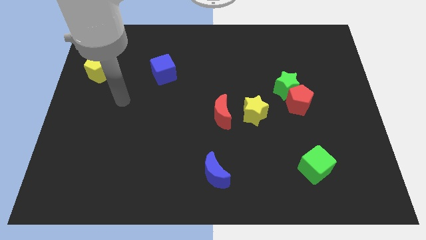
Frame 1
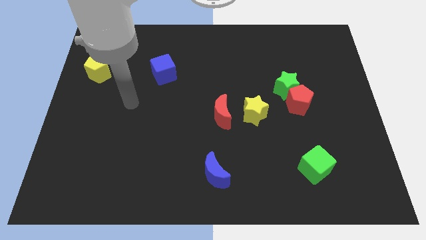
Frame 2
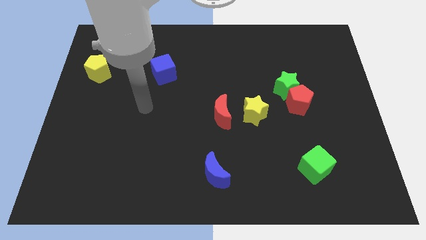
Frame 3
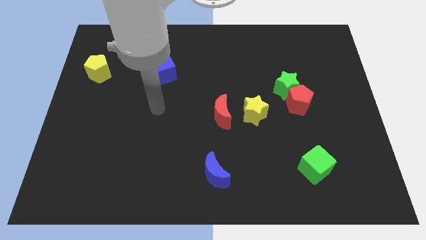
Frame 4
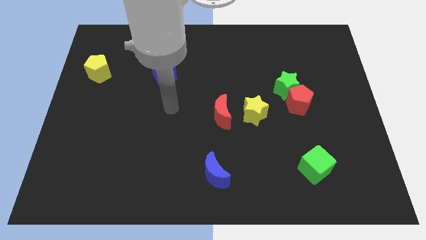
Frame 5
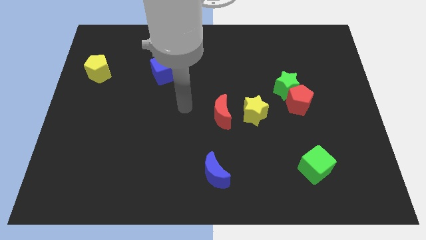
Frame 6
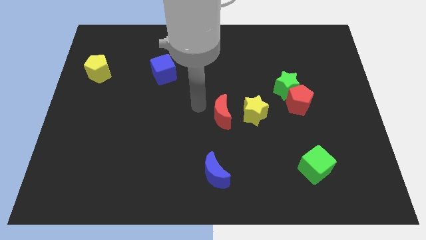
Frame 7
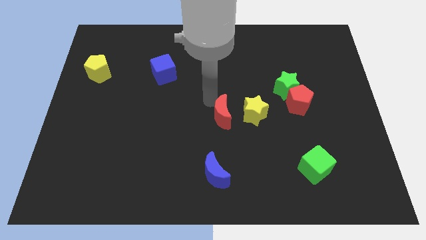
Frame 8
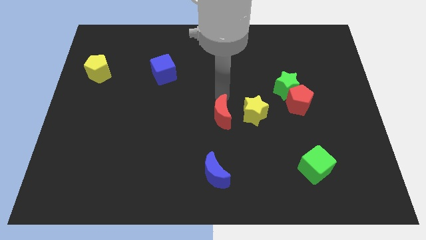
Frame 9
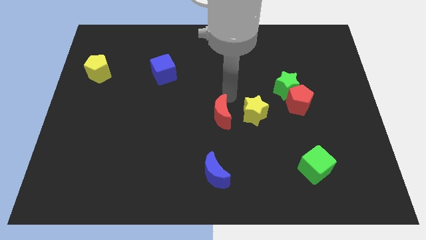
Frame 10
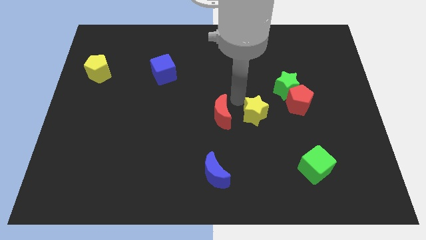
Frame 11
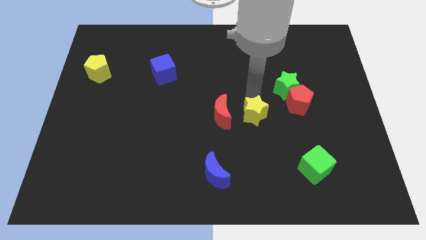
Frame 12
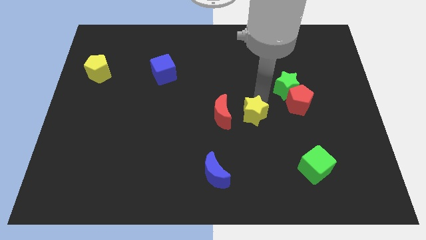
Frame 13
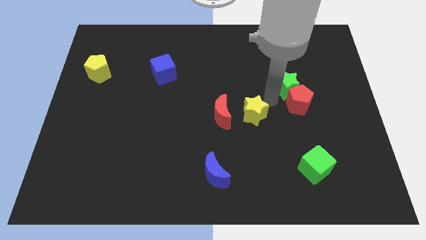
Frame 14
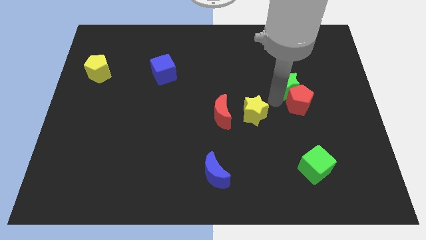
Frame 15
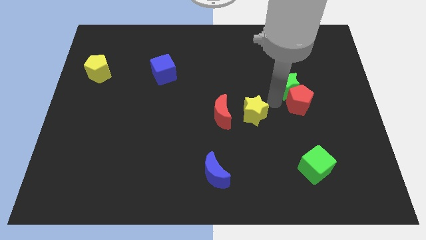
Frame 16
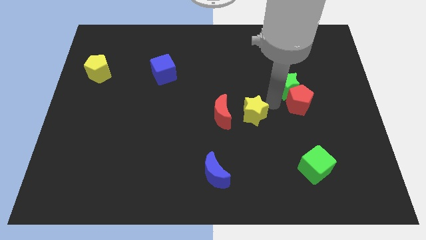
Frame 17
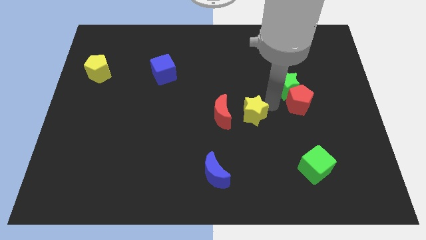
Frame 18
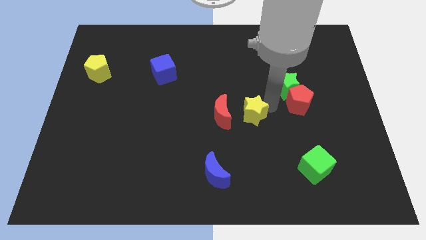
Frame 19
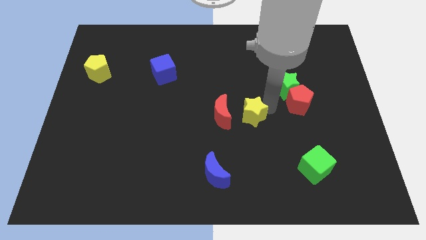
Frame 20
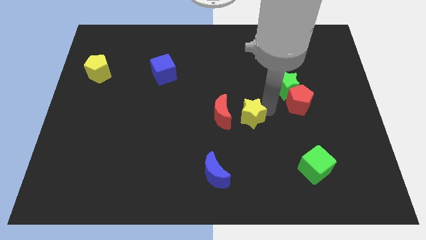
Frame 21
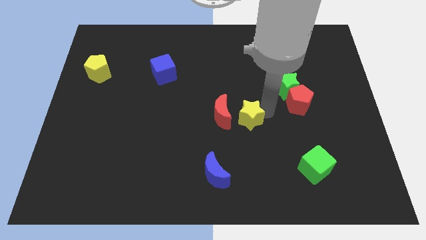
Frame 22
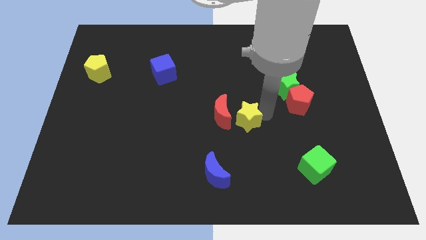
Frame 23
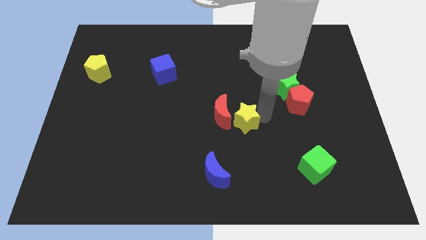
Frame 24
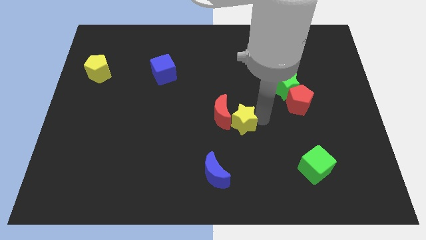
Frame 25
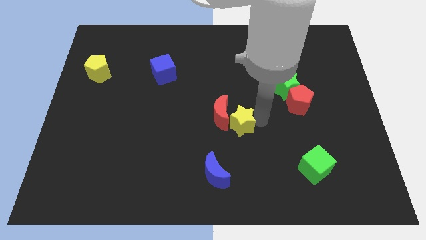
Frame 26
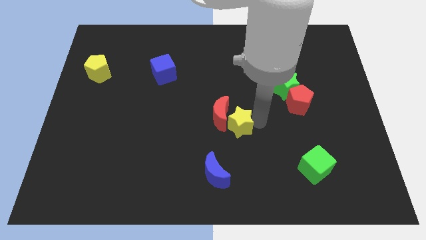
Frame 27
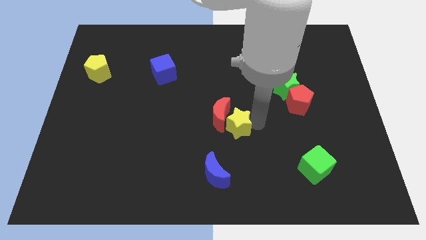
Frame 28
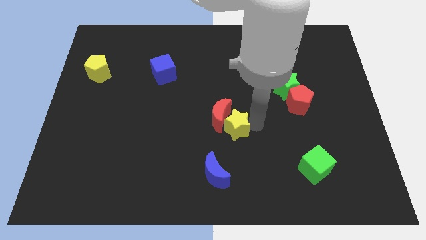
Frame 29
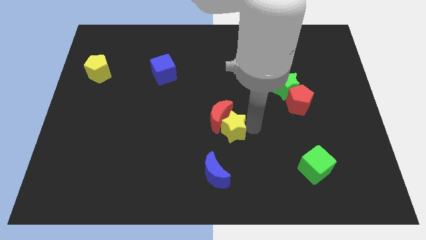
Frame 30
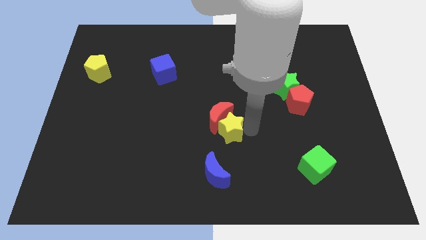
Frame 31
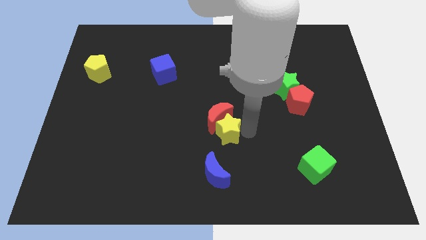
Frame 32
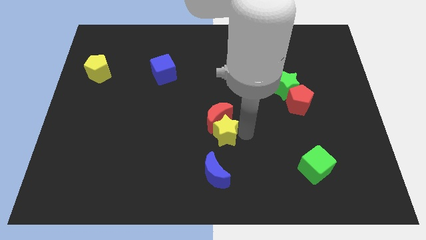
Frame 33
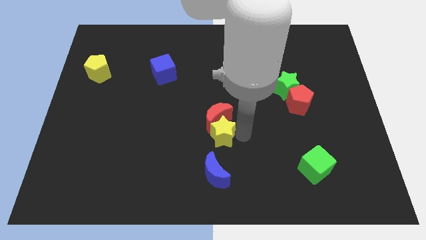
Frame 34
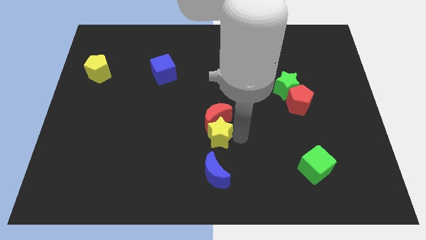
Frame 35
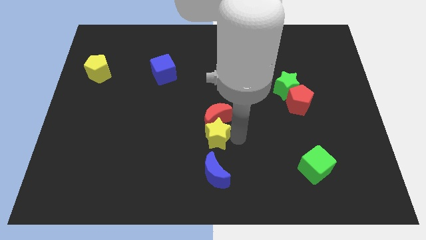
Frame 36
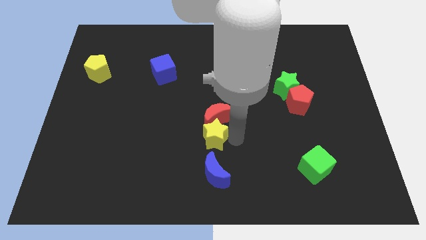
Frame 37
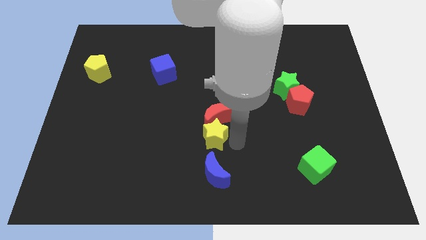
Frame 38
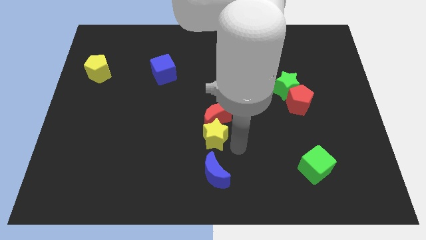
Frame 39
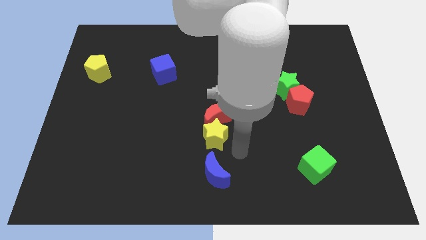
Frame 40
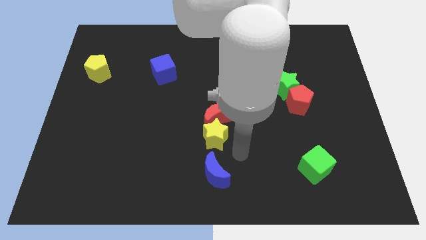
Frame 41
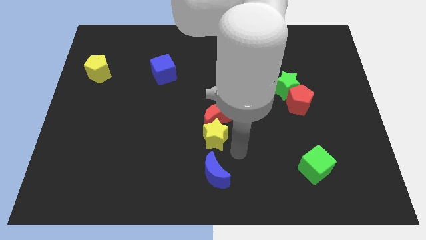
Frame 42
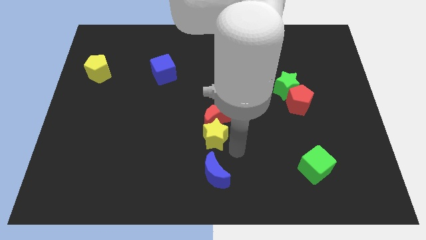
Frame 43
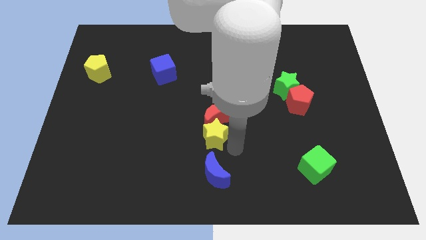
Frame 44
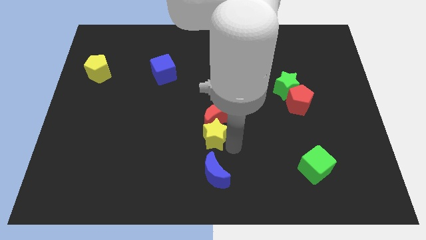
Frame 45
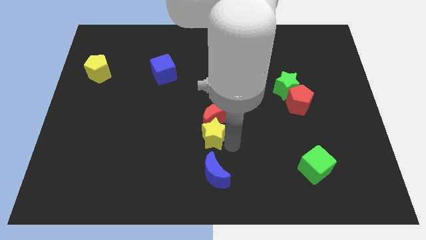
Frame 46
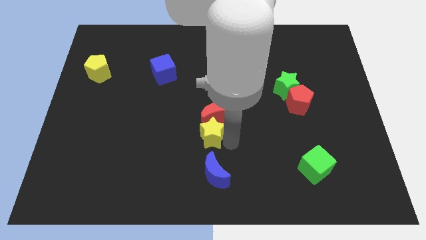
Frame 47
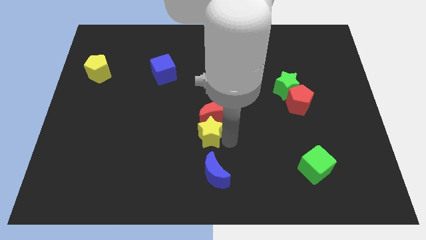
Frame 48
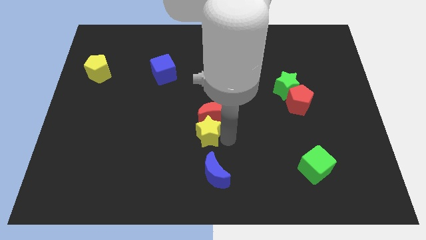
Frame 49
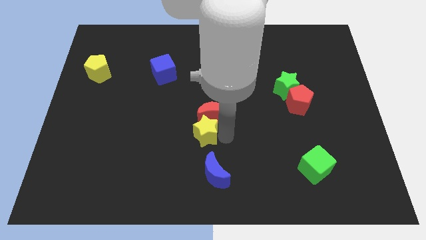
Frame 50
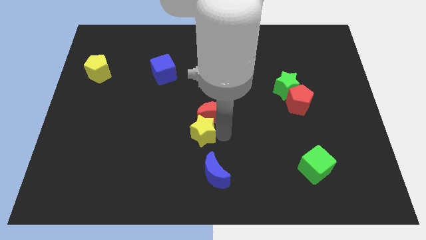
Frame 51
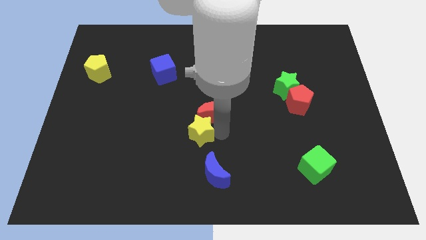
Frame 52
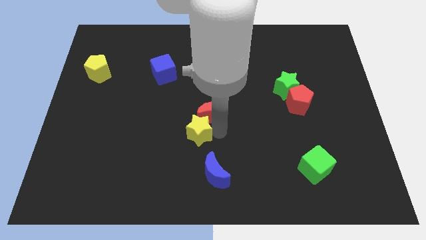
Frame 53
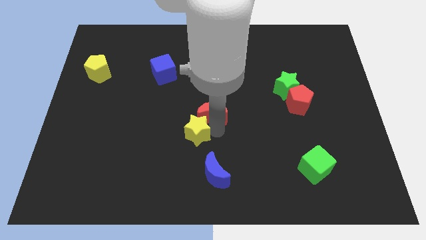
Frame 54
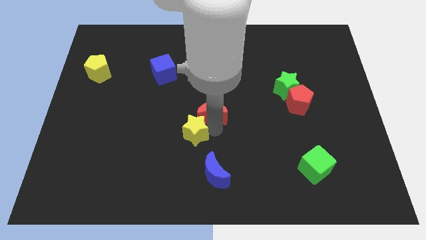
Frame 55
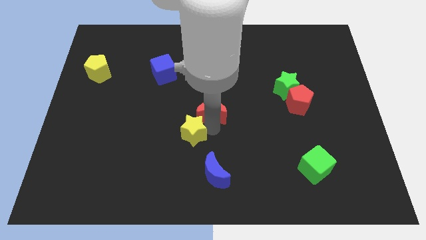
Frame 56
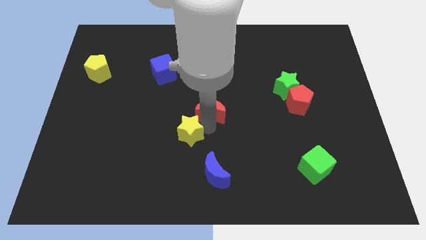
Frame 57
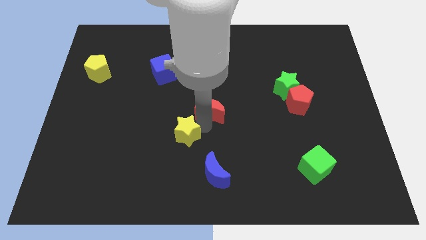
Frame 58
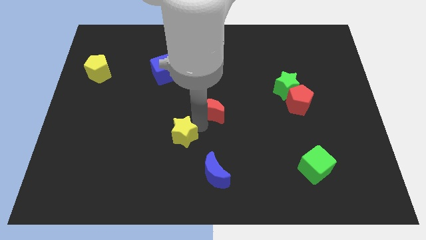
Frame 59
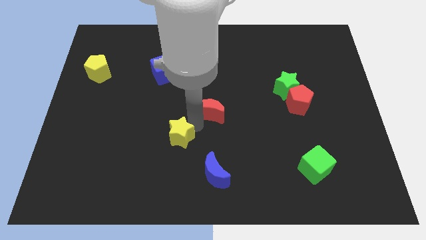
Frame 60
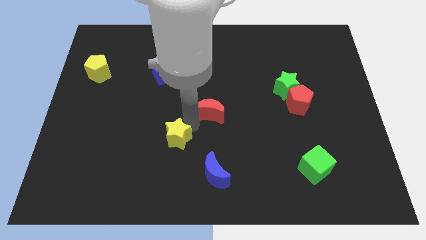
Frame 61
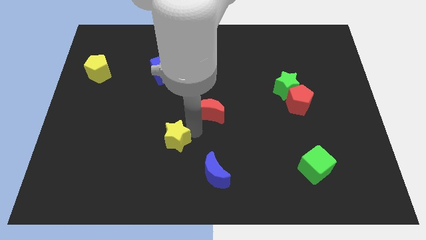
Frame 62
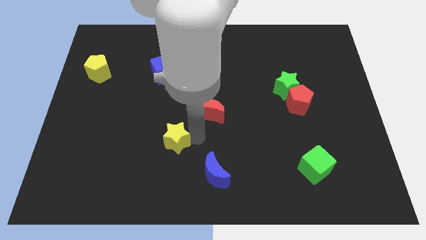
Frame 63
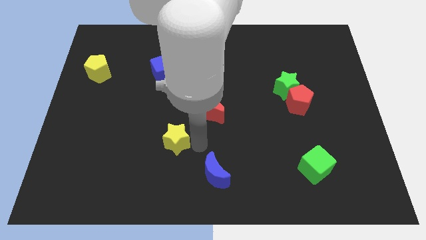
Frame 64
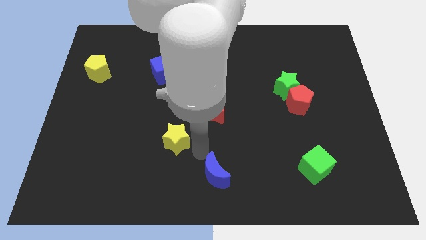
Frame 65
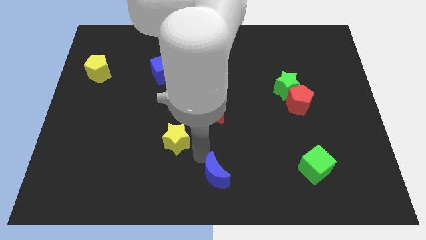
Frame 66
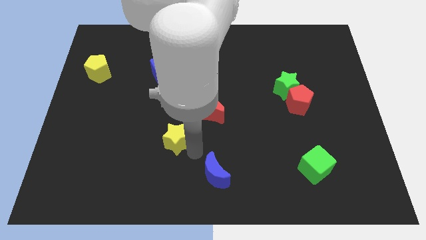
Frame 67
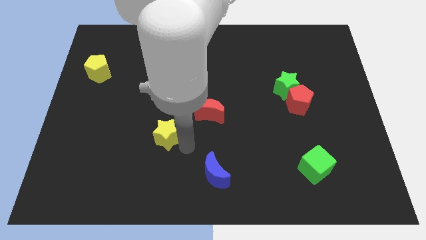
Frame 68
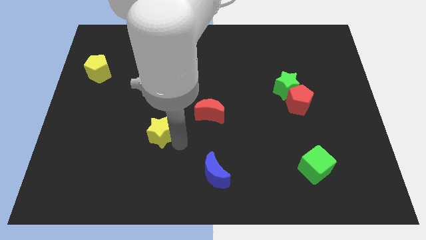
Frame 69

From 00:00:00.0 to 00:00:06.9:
push the yellow star left

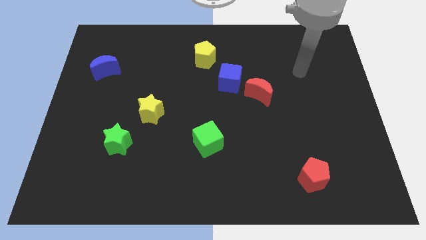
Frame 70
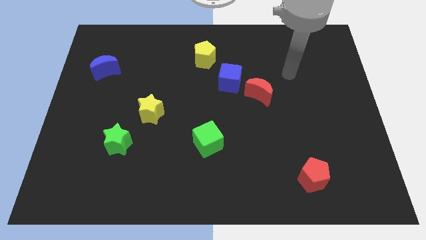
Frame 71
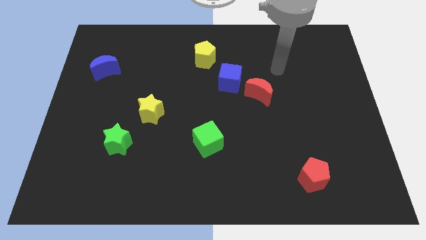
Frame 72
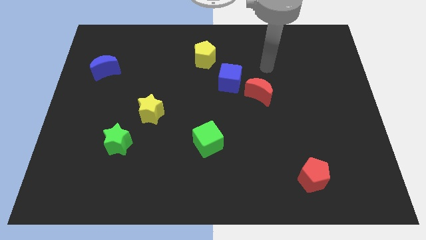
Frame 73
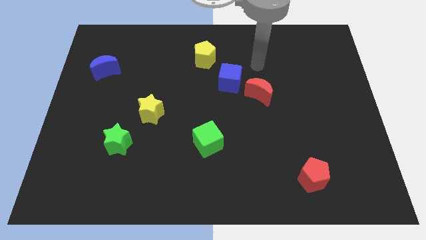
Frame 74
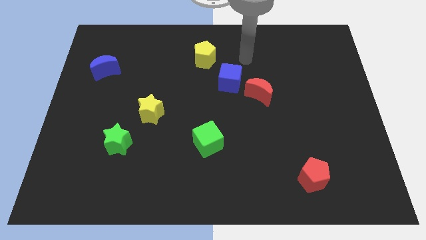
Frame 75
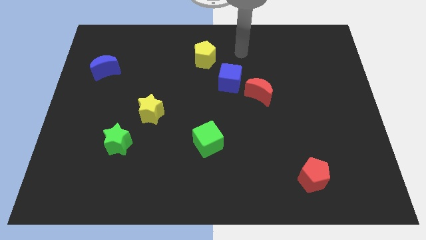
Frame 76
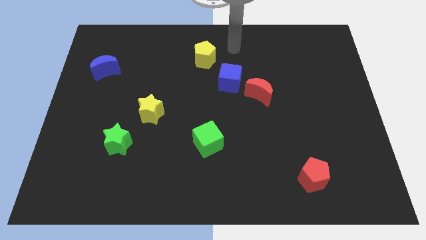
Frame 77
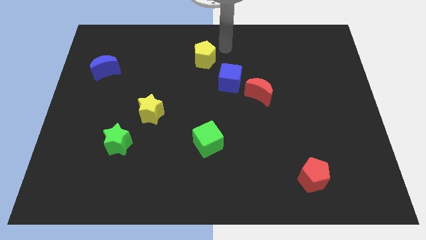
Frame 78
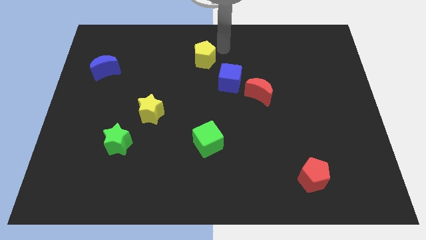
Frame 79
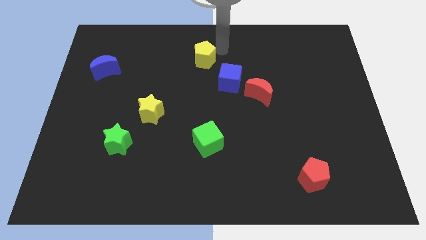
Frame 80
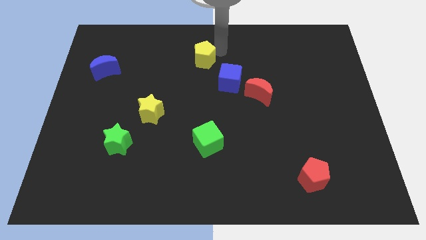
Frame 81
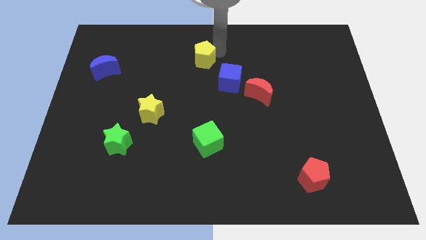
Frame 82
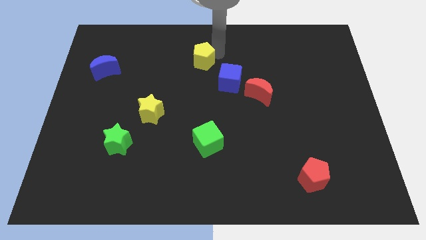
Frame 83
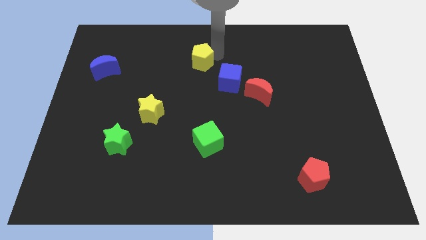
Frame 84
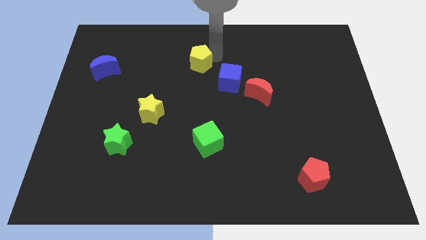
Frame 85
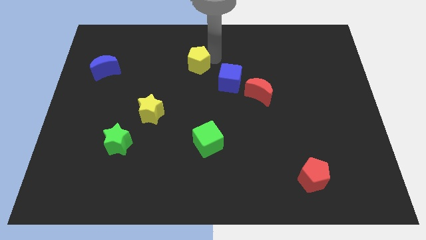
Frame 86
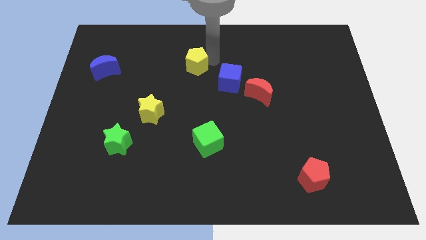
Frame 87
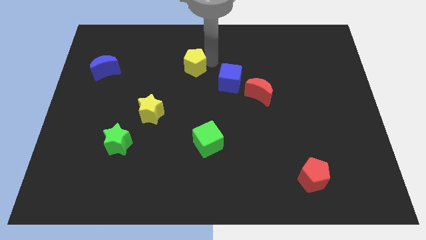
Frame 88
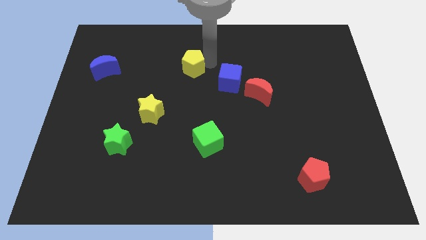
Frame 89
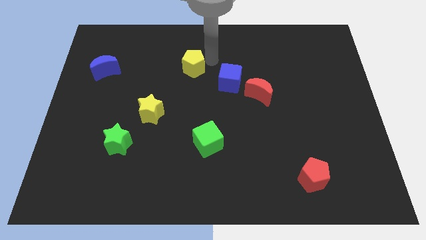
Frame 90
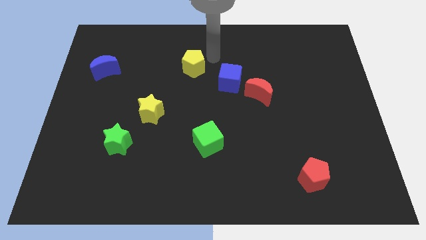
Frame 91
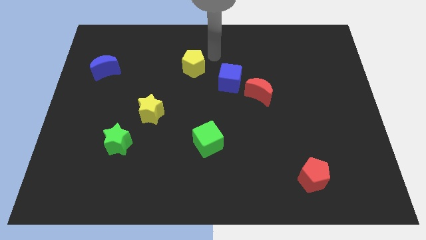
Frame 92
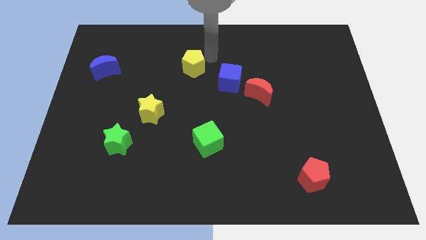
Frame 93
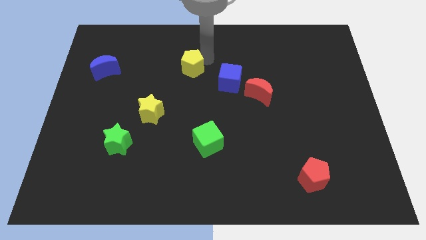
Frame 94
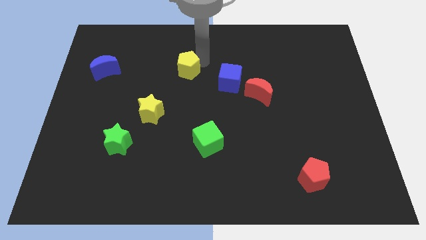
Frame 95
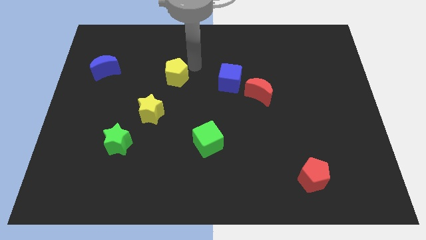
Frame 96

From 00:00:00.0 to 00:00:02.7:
move the yellow pentagon downwards and then to the left a little bit
